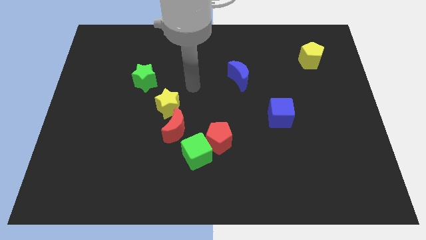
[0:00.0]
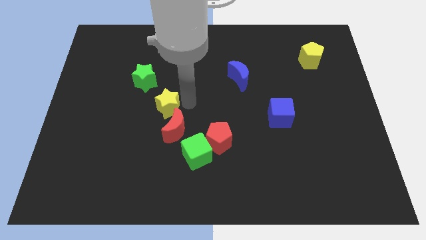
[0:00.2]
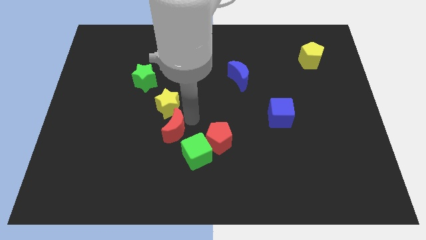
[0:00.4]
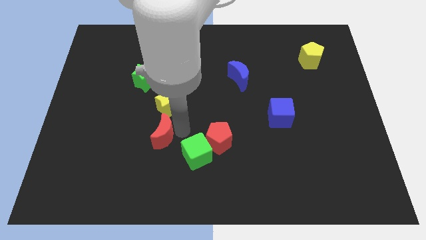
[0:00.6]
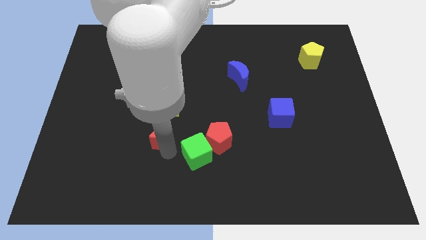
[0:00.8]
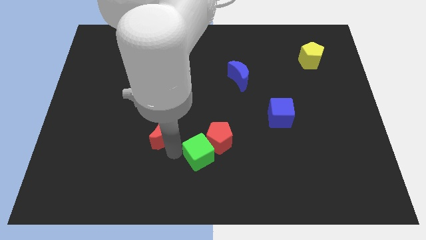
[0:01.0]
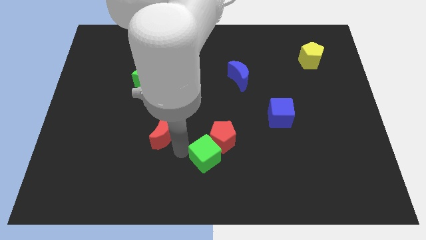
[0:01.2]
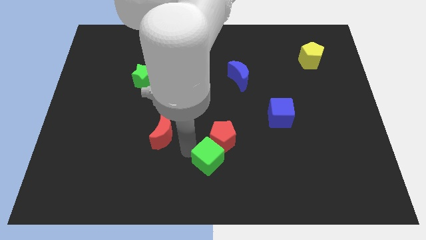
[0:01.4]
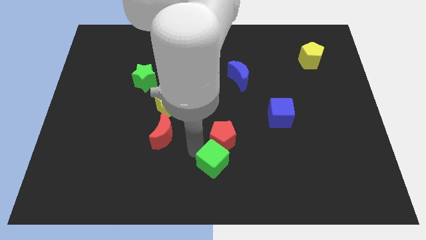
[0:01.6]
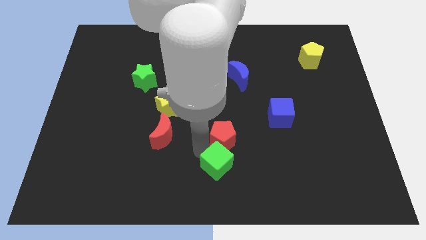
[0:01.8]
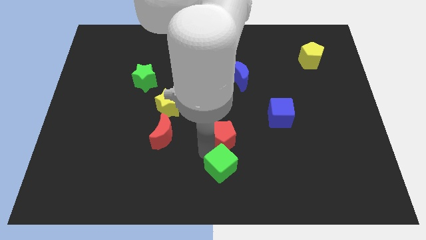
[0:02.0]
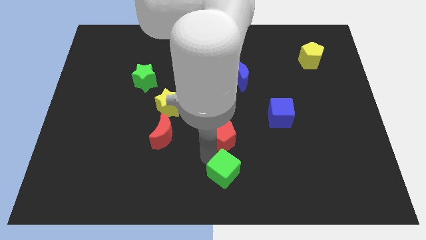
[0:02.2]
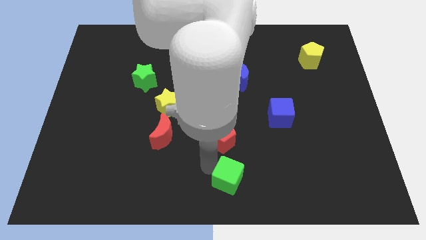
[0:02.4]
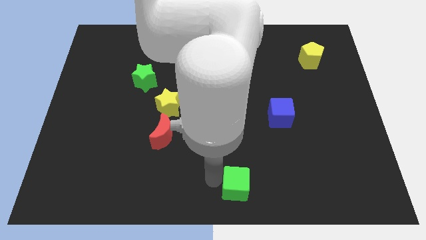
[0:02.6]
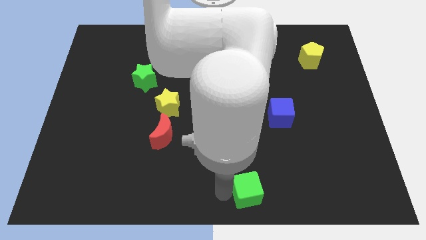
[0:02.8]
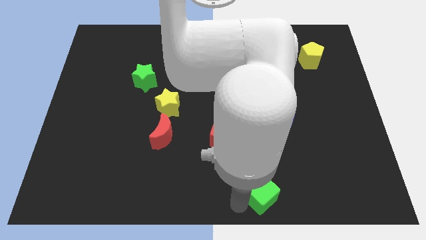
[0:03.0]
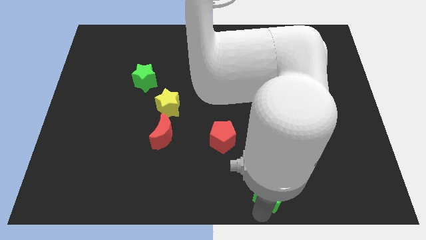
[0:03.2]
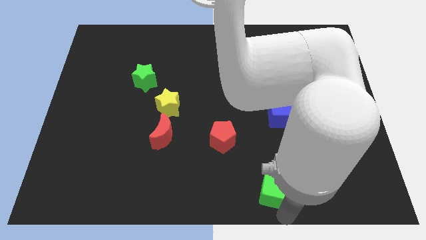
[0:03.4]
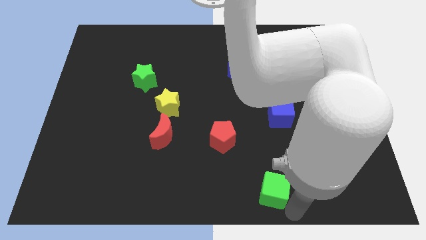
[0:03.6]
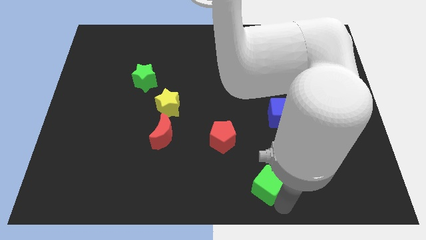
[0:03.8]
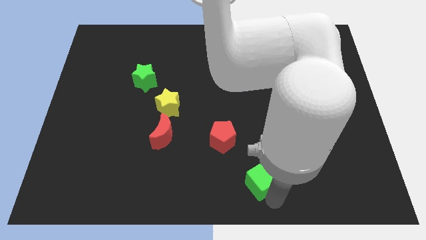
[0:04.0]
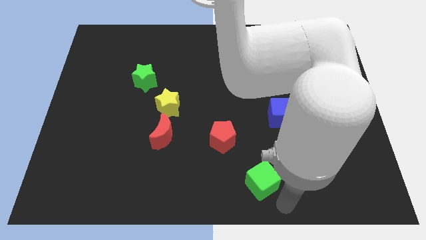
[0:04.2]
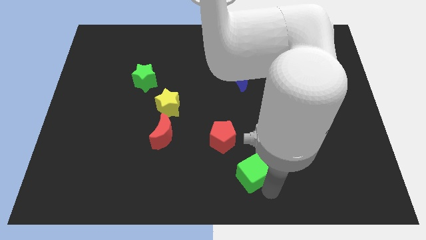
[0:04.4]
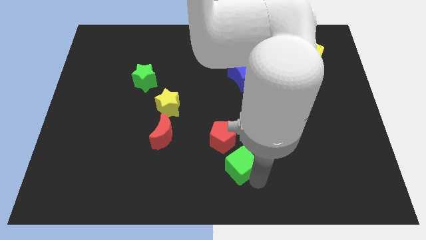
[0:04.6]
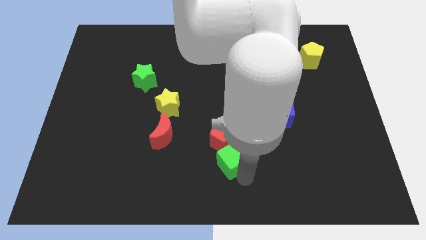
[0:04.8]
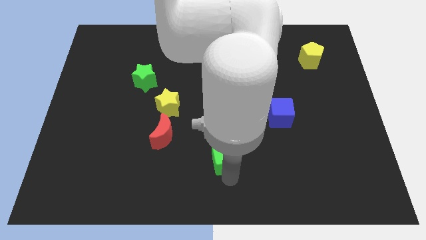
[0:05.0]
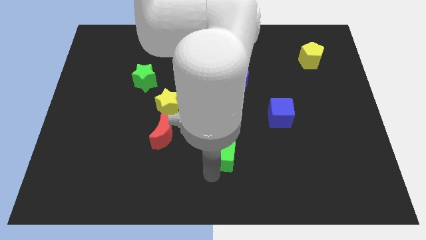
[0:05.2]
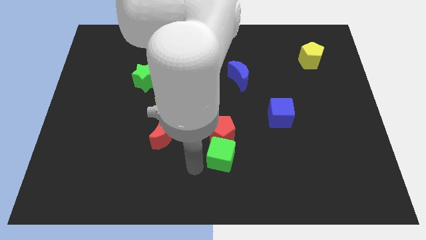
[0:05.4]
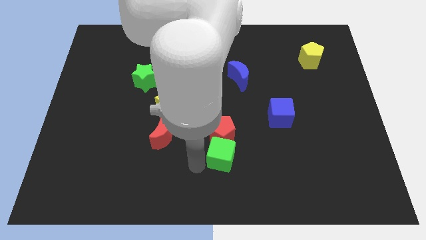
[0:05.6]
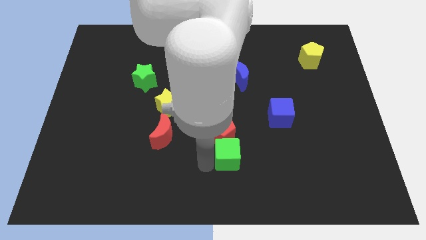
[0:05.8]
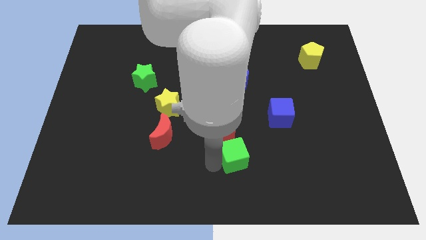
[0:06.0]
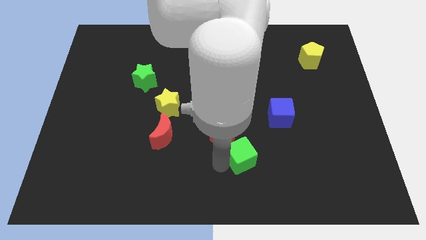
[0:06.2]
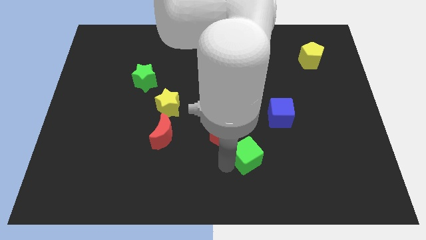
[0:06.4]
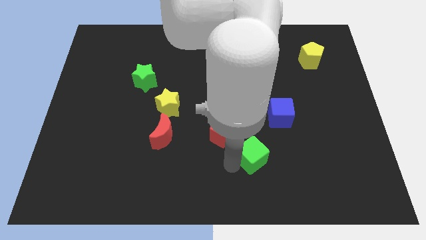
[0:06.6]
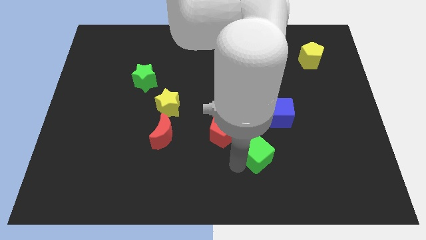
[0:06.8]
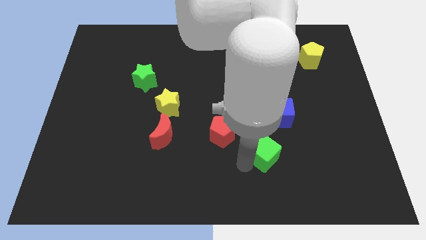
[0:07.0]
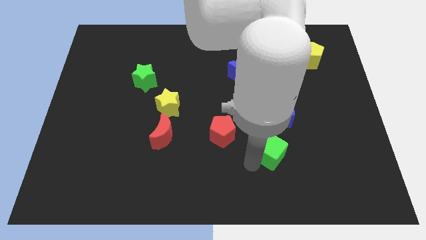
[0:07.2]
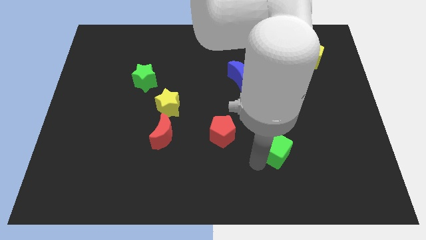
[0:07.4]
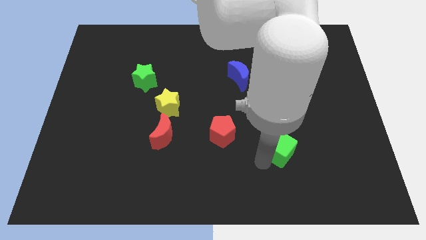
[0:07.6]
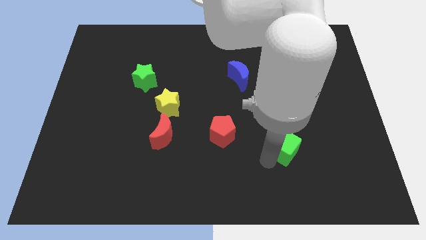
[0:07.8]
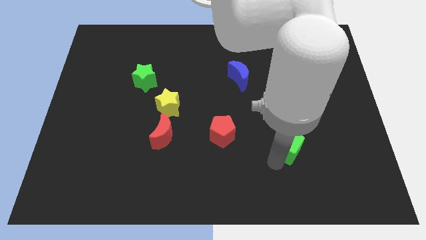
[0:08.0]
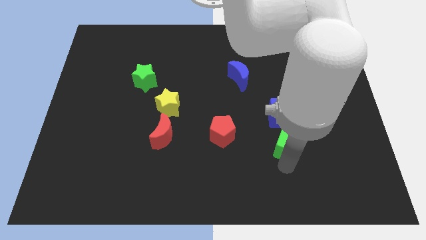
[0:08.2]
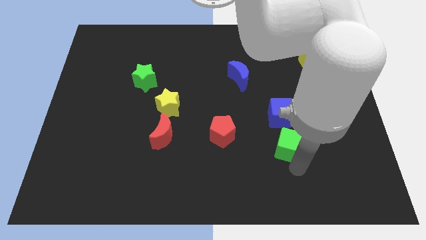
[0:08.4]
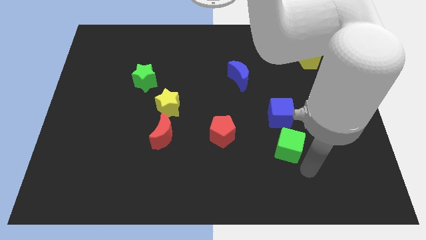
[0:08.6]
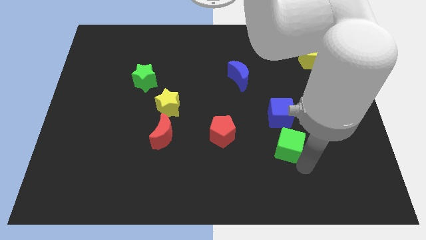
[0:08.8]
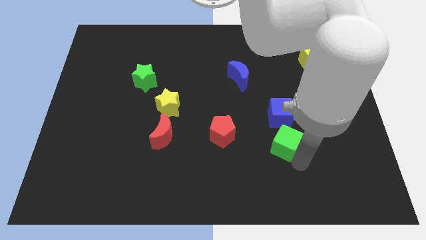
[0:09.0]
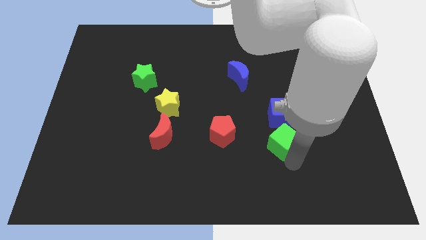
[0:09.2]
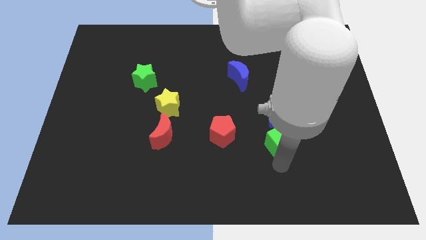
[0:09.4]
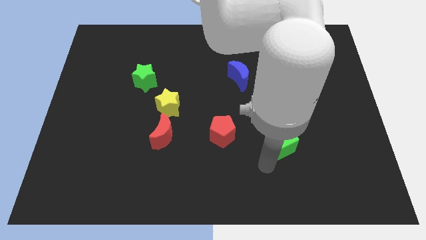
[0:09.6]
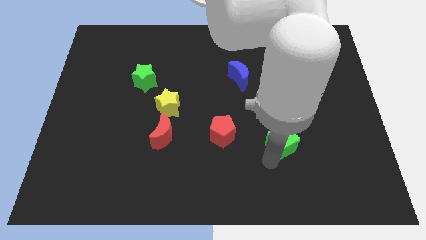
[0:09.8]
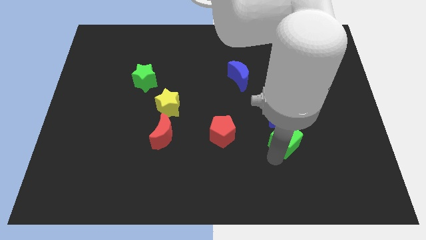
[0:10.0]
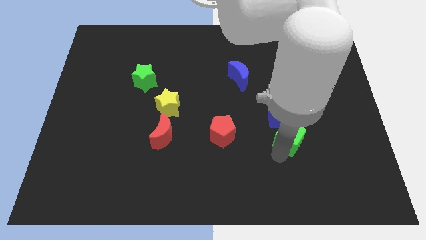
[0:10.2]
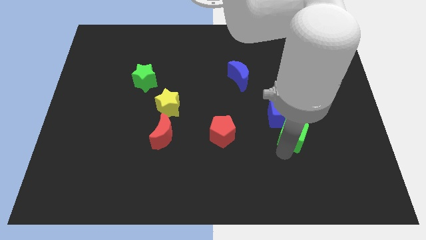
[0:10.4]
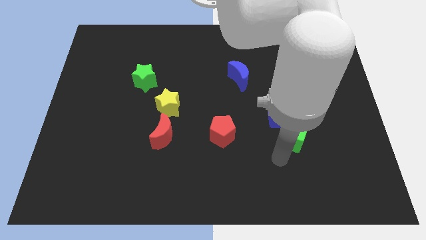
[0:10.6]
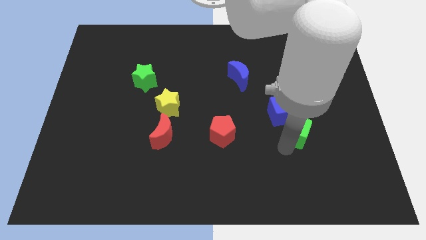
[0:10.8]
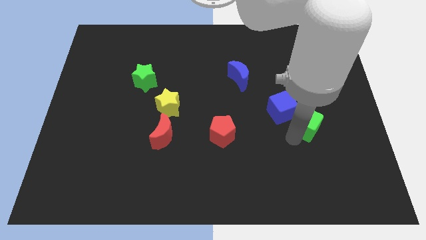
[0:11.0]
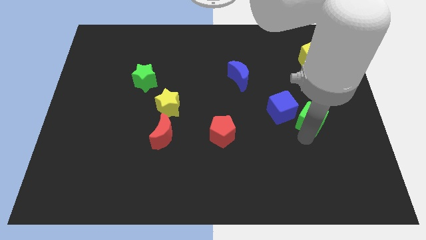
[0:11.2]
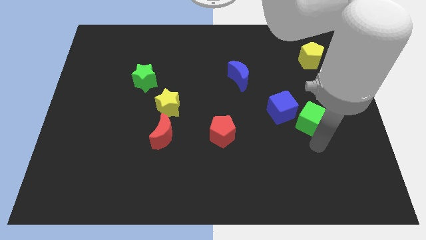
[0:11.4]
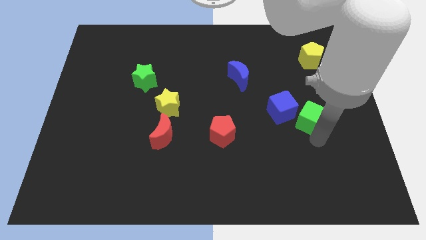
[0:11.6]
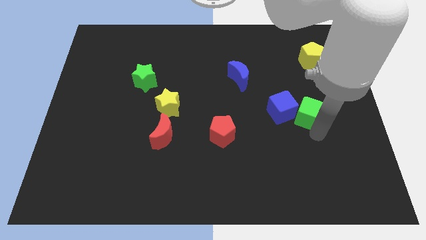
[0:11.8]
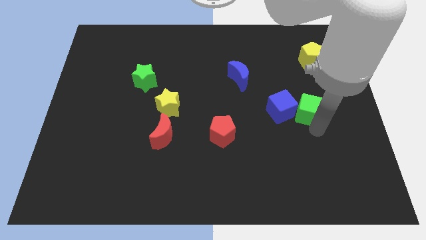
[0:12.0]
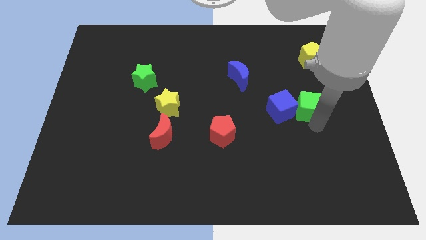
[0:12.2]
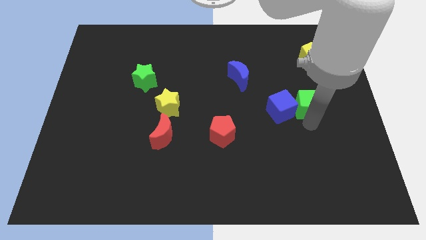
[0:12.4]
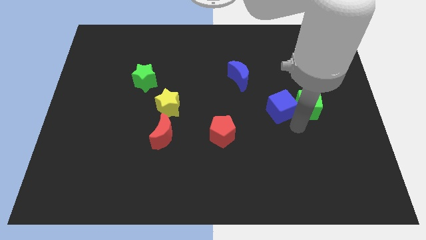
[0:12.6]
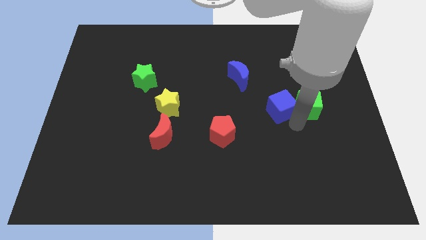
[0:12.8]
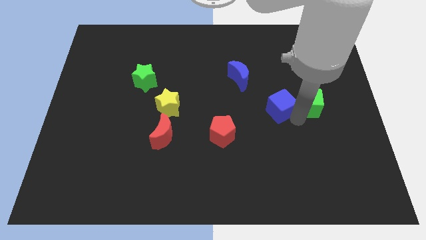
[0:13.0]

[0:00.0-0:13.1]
move the green cube to the bottom side of the yellow pentagon
